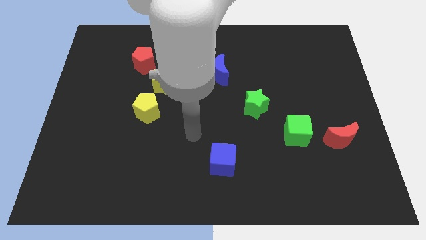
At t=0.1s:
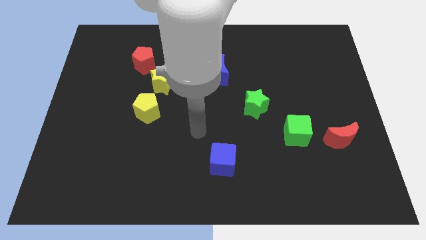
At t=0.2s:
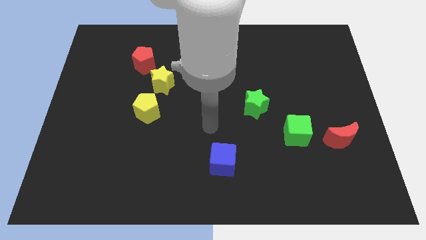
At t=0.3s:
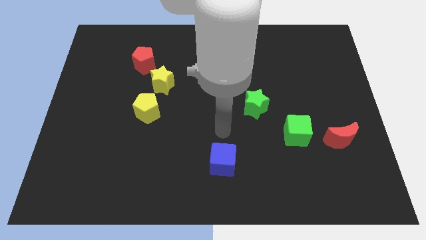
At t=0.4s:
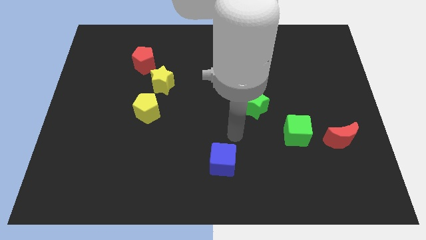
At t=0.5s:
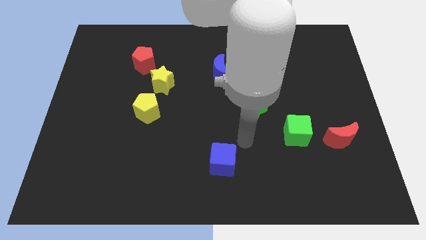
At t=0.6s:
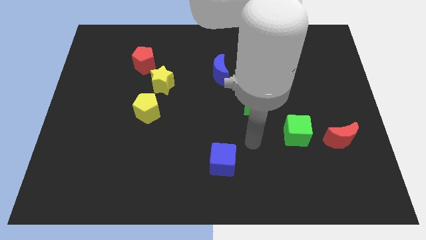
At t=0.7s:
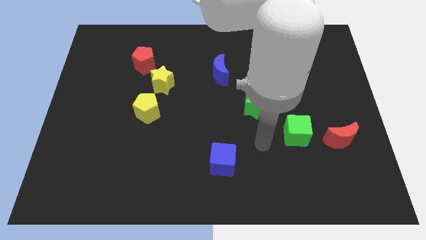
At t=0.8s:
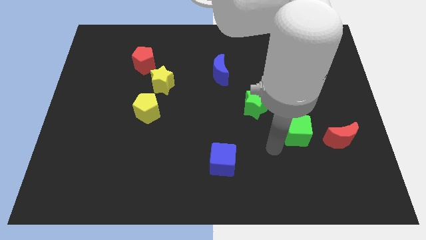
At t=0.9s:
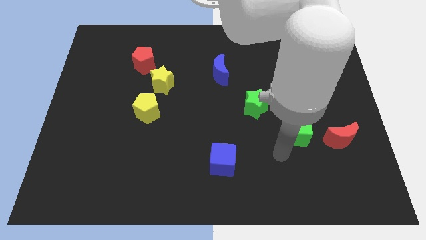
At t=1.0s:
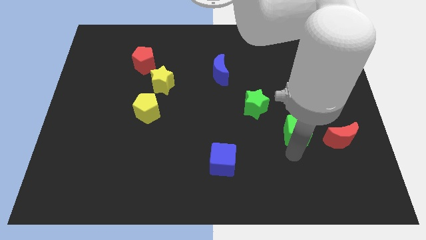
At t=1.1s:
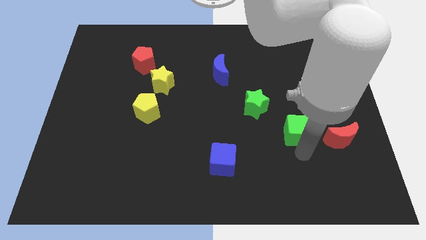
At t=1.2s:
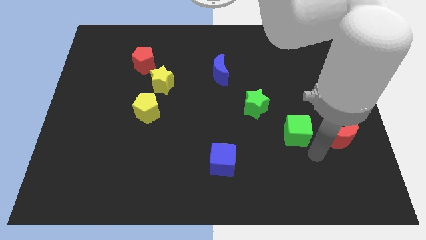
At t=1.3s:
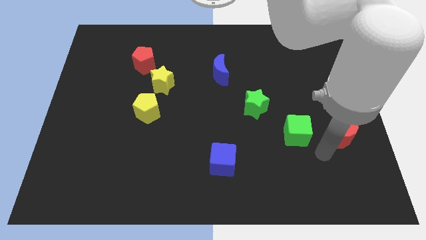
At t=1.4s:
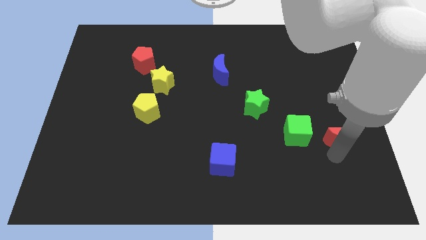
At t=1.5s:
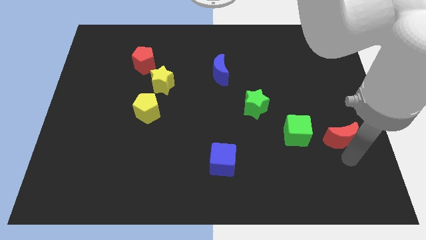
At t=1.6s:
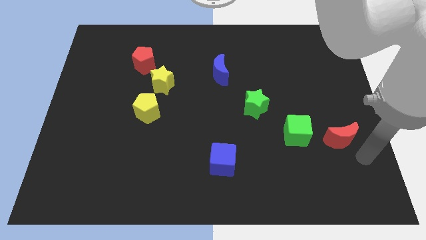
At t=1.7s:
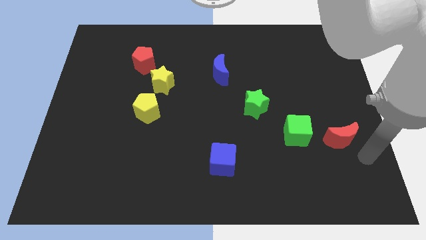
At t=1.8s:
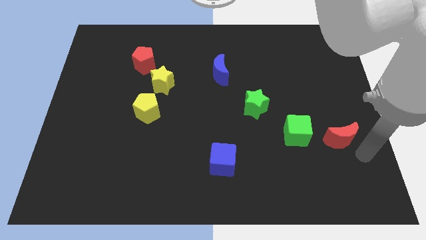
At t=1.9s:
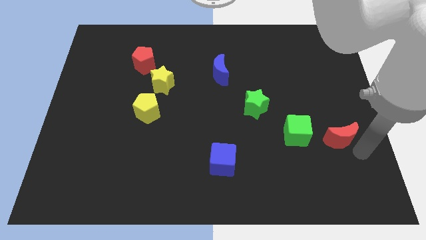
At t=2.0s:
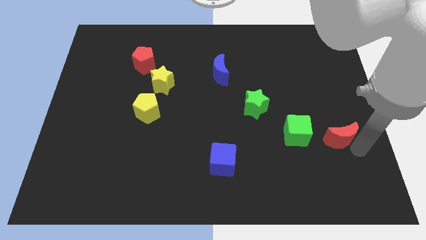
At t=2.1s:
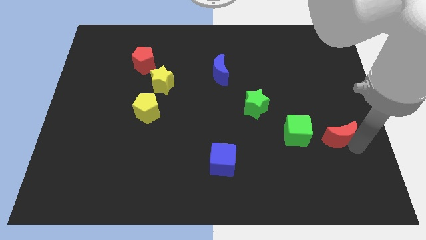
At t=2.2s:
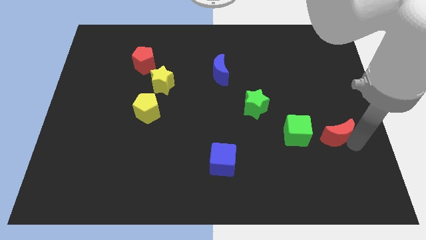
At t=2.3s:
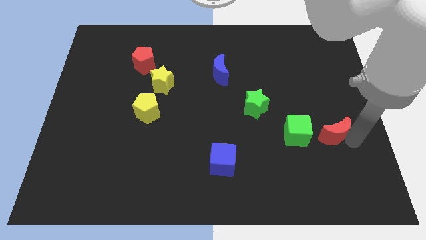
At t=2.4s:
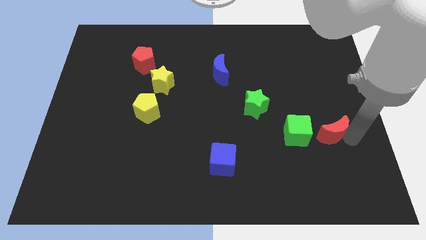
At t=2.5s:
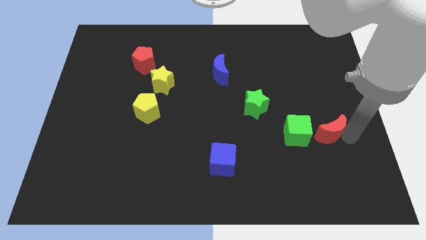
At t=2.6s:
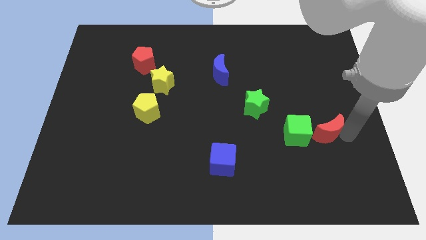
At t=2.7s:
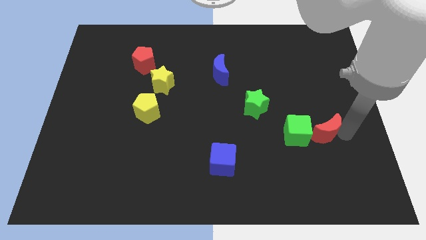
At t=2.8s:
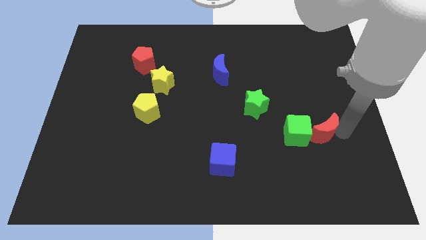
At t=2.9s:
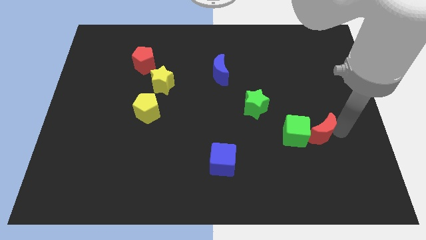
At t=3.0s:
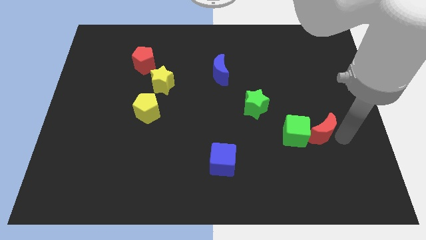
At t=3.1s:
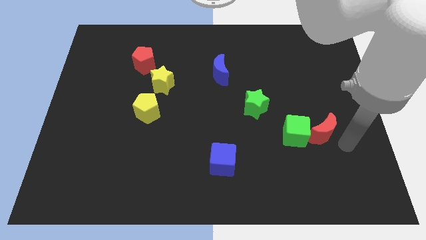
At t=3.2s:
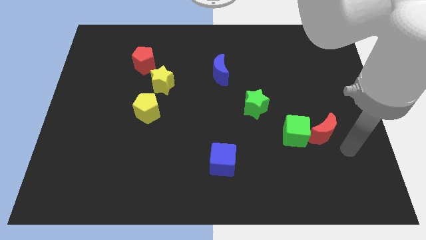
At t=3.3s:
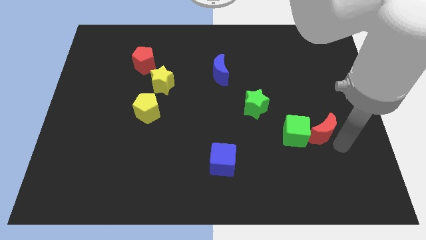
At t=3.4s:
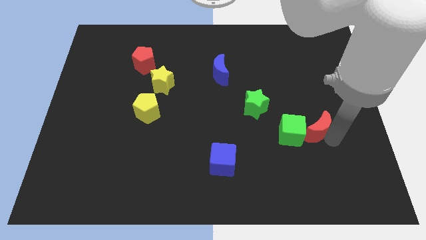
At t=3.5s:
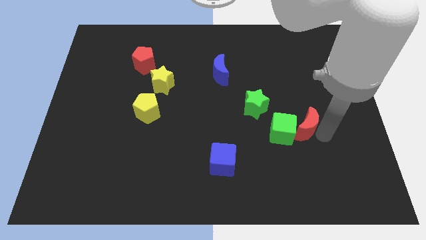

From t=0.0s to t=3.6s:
slightly slide the red moon upwards and left diagonally

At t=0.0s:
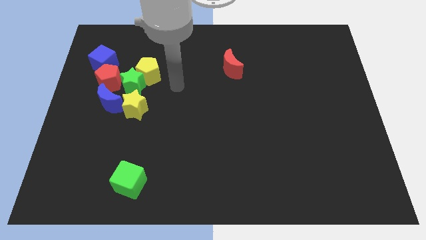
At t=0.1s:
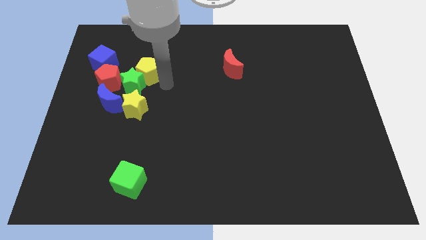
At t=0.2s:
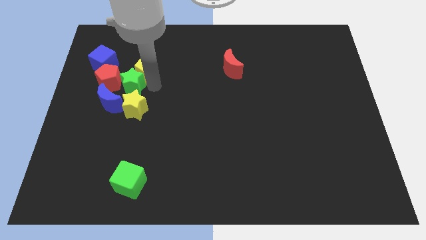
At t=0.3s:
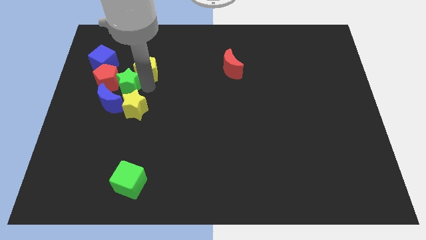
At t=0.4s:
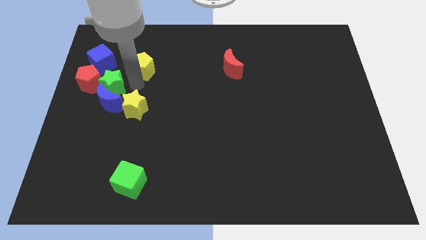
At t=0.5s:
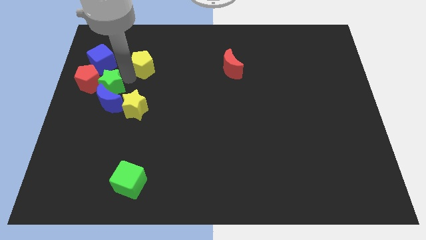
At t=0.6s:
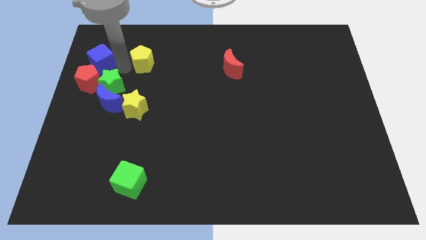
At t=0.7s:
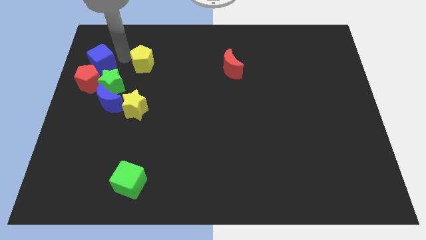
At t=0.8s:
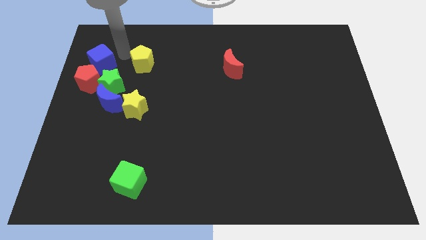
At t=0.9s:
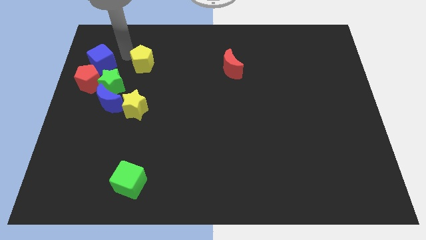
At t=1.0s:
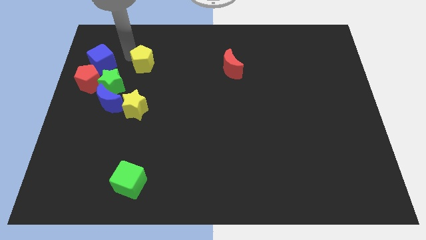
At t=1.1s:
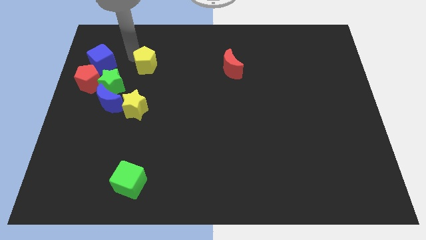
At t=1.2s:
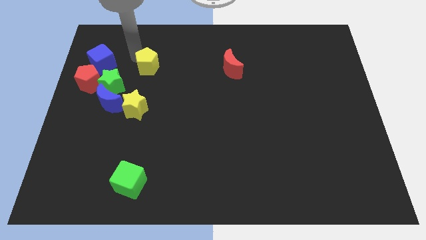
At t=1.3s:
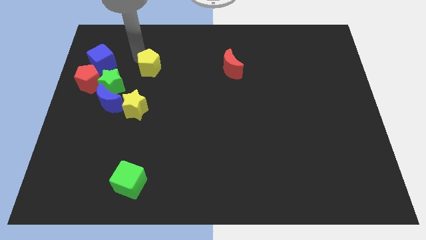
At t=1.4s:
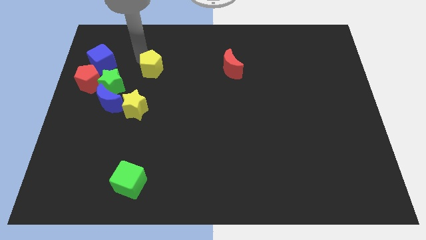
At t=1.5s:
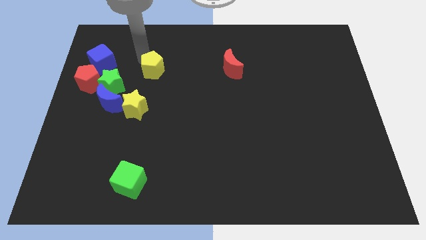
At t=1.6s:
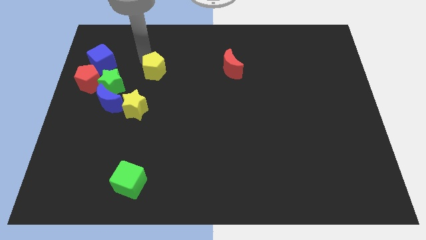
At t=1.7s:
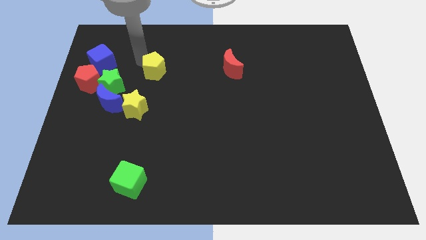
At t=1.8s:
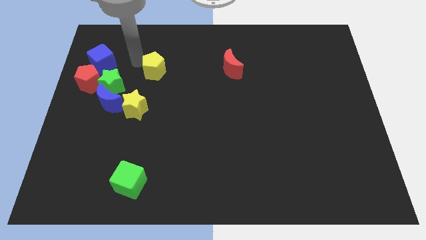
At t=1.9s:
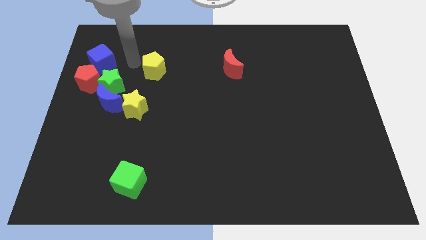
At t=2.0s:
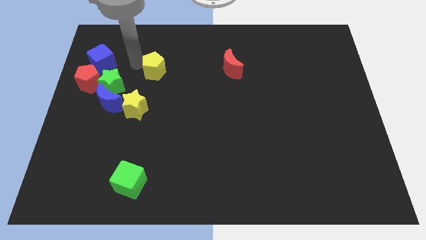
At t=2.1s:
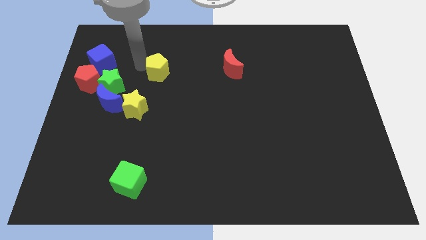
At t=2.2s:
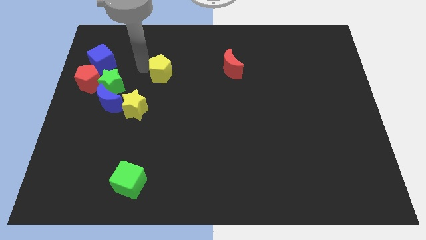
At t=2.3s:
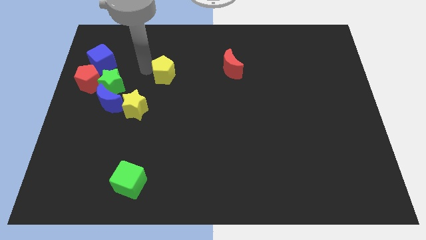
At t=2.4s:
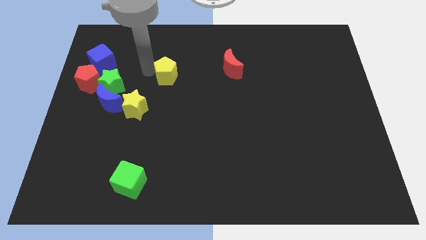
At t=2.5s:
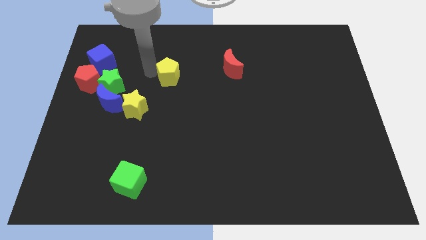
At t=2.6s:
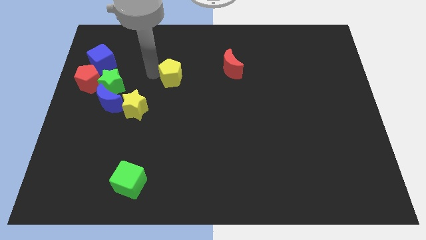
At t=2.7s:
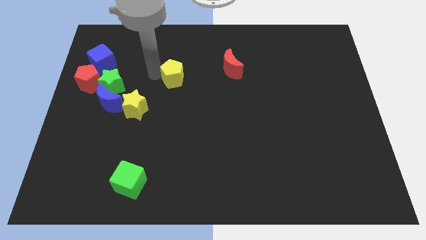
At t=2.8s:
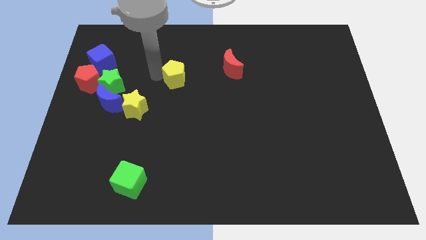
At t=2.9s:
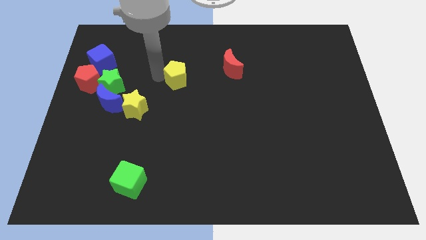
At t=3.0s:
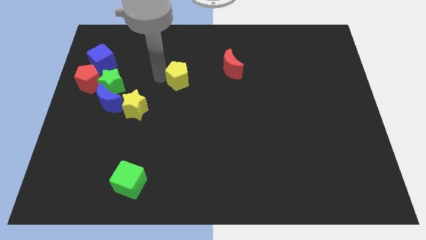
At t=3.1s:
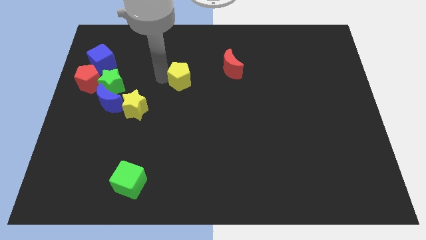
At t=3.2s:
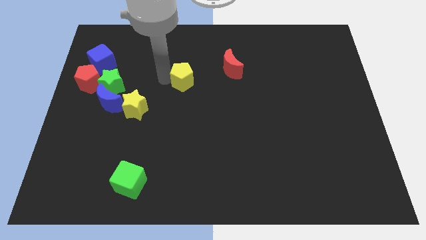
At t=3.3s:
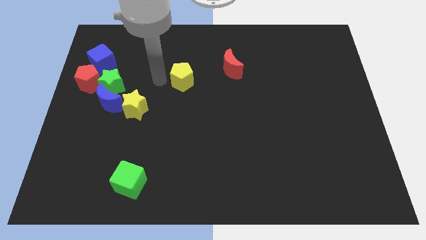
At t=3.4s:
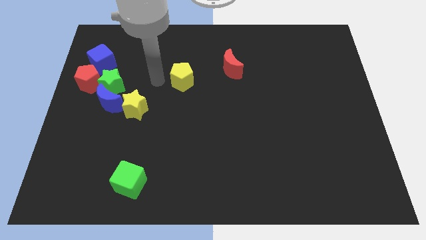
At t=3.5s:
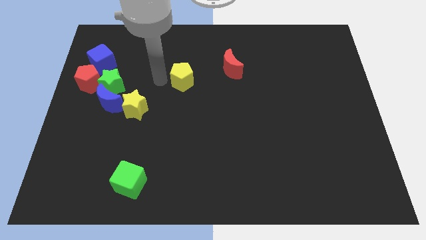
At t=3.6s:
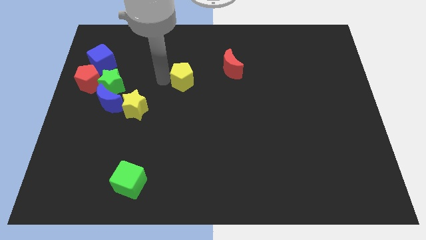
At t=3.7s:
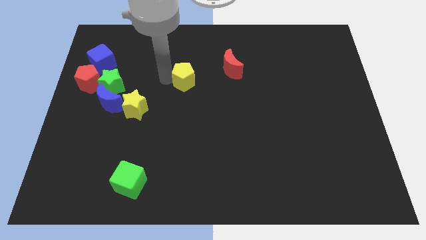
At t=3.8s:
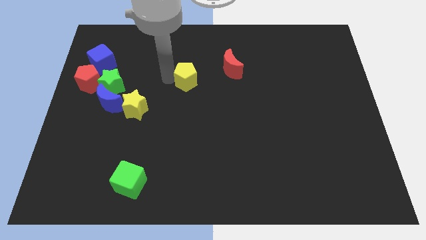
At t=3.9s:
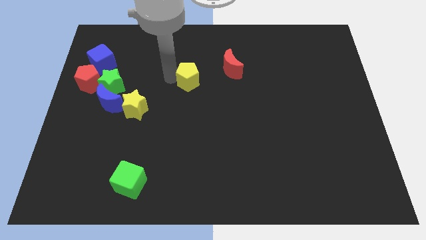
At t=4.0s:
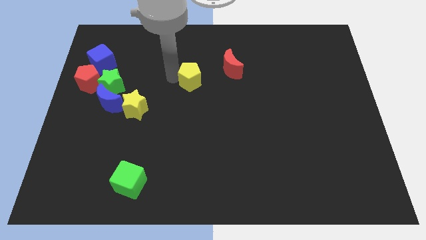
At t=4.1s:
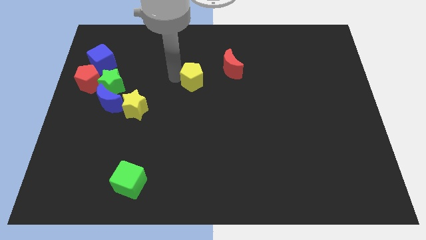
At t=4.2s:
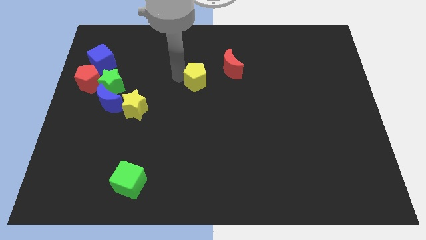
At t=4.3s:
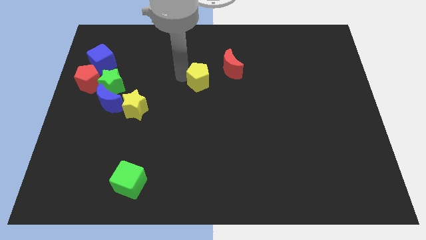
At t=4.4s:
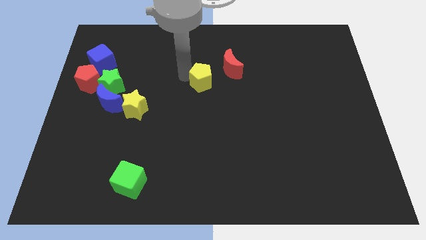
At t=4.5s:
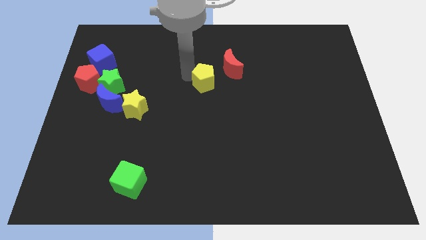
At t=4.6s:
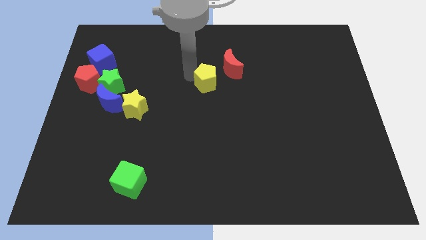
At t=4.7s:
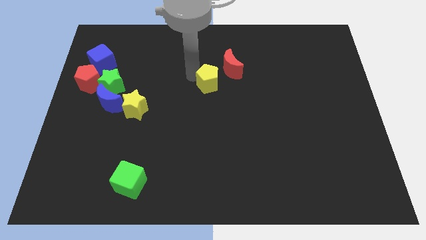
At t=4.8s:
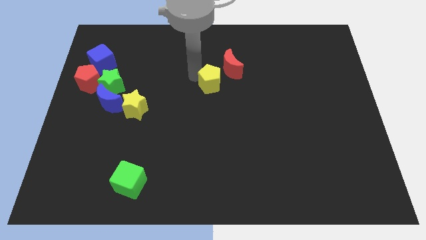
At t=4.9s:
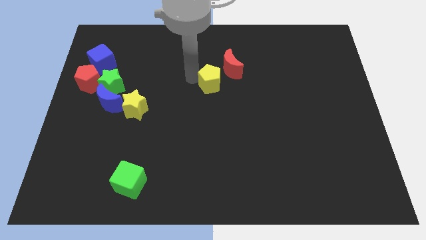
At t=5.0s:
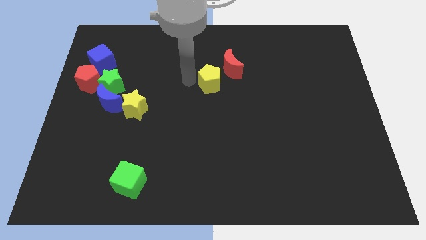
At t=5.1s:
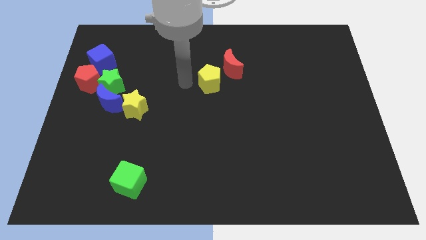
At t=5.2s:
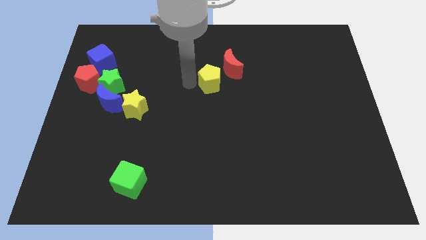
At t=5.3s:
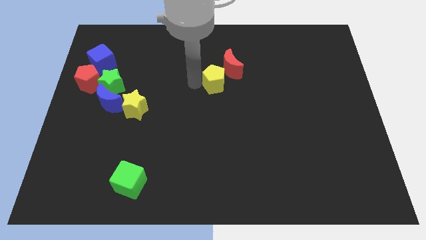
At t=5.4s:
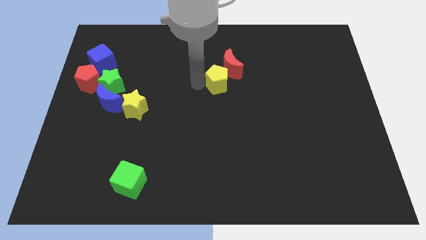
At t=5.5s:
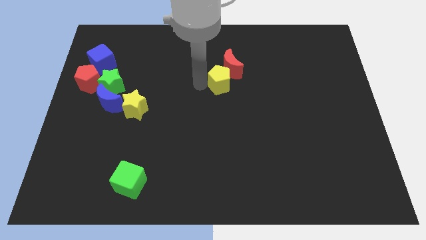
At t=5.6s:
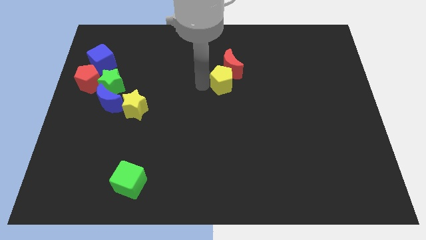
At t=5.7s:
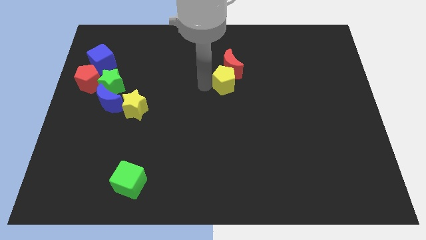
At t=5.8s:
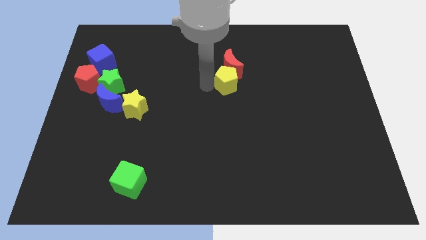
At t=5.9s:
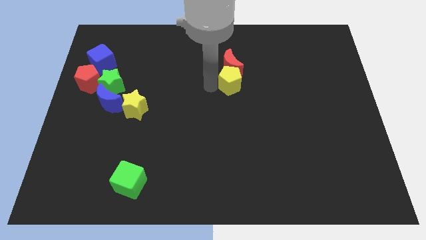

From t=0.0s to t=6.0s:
push the yellow pentagon right
